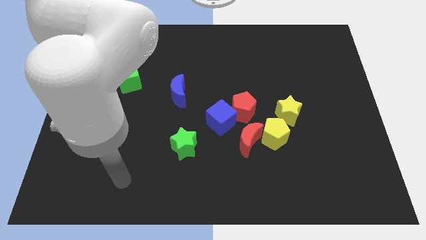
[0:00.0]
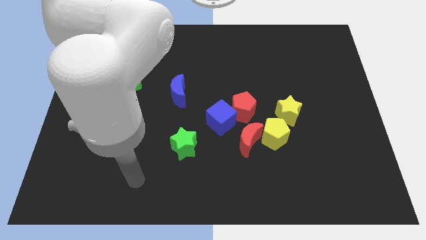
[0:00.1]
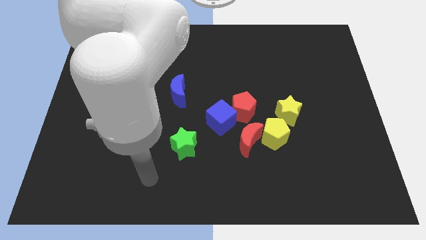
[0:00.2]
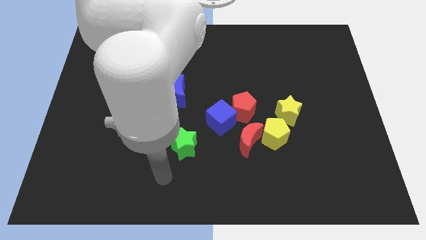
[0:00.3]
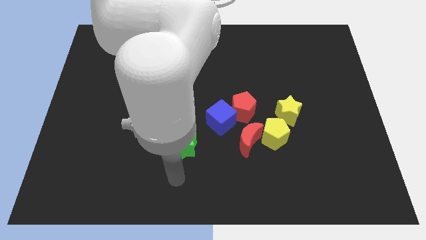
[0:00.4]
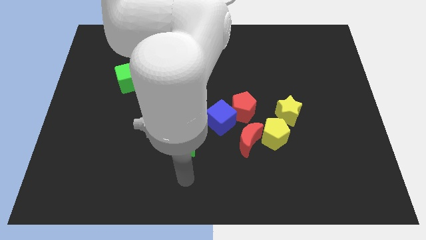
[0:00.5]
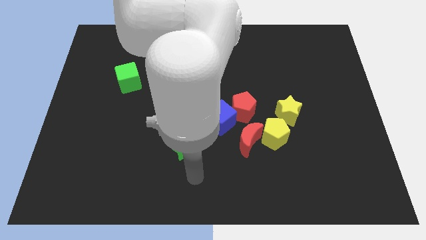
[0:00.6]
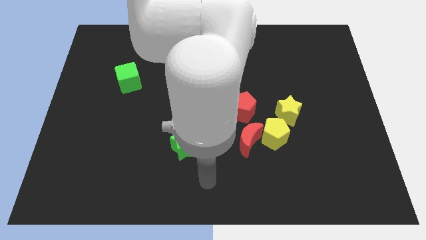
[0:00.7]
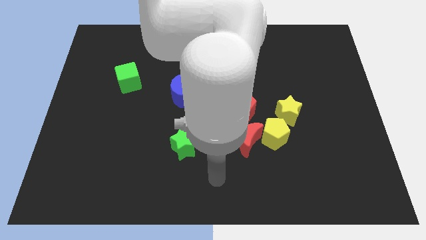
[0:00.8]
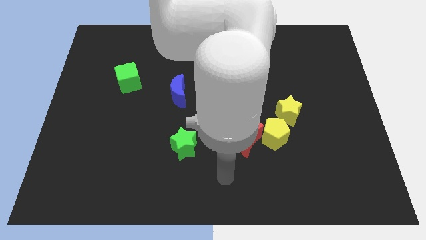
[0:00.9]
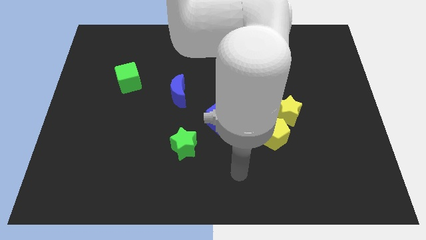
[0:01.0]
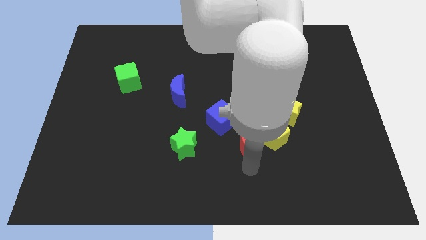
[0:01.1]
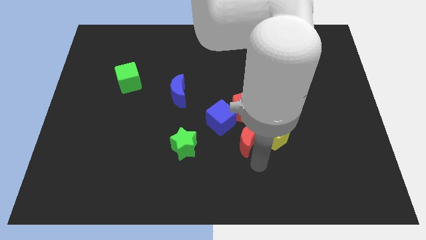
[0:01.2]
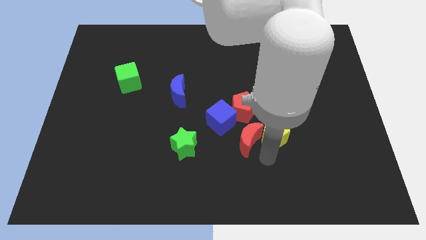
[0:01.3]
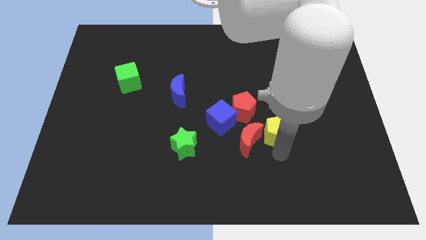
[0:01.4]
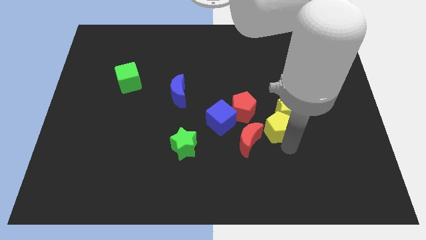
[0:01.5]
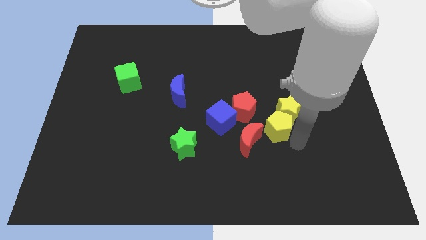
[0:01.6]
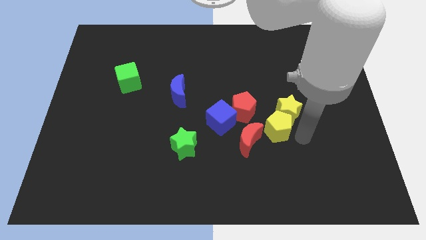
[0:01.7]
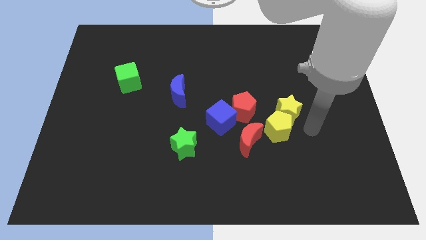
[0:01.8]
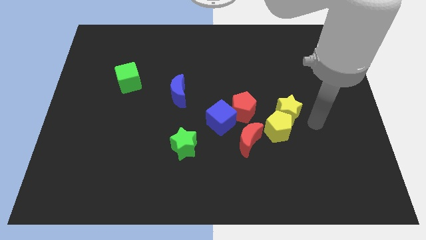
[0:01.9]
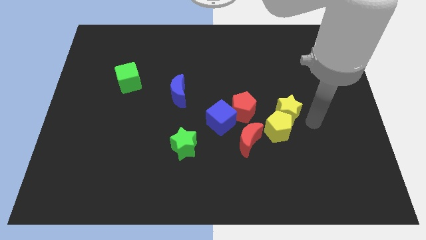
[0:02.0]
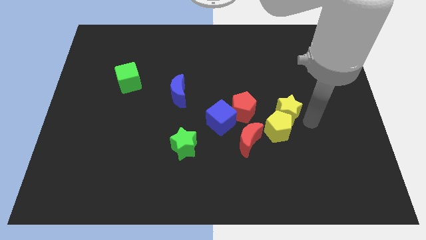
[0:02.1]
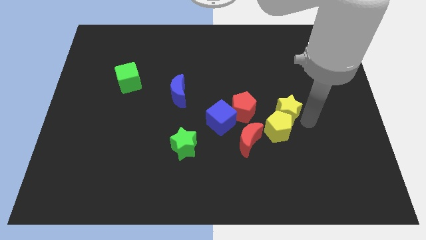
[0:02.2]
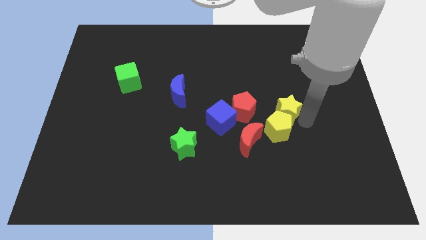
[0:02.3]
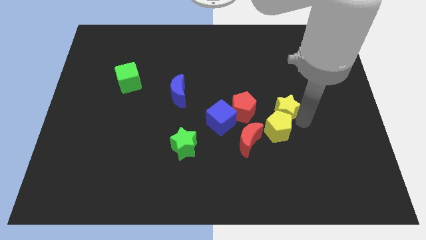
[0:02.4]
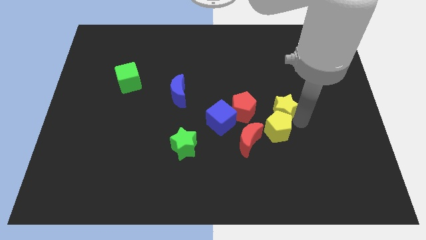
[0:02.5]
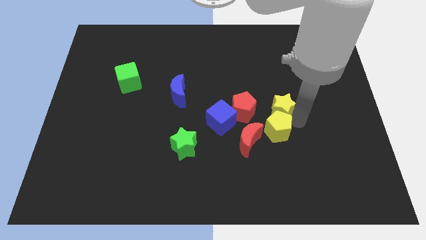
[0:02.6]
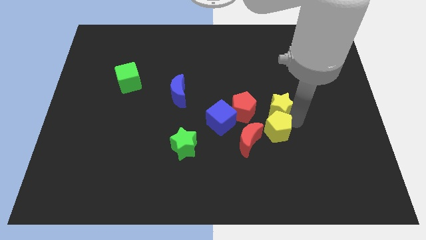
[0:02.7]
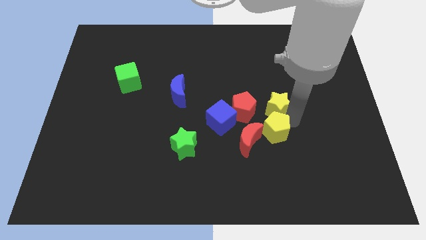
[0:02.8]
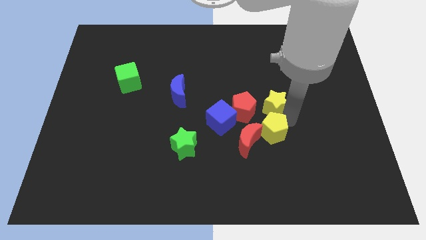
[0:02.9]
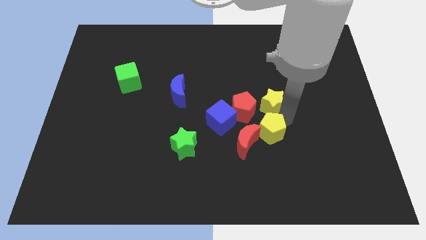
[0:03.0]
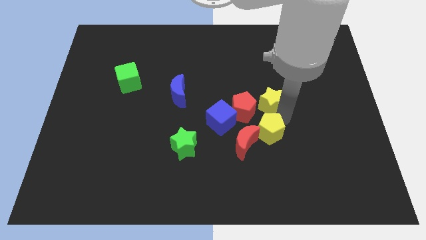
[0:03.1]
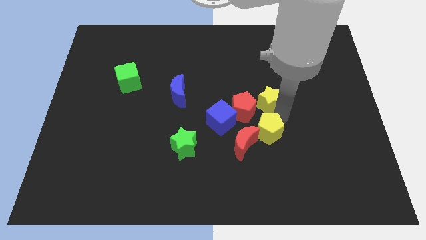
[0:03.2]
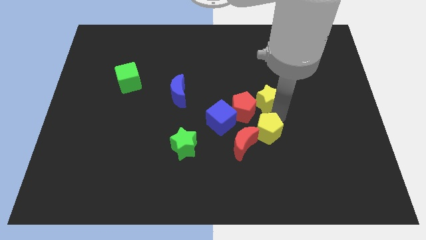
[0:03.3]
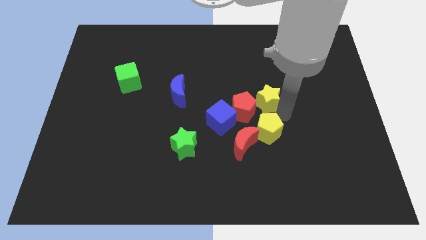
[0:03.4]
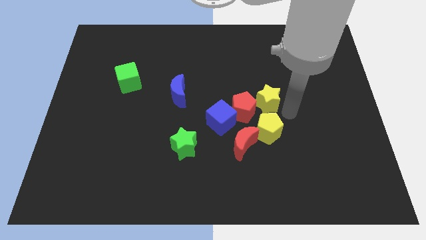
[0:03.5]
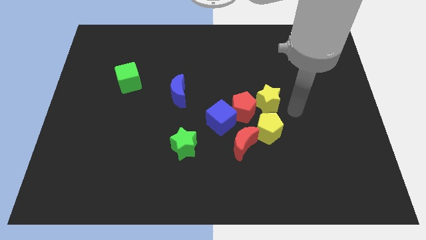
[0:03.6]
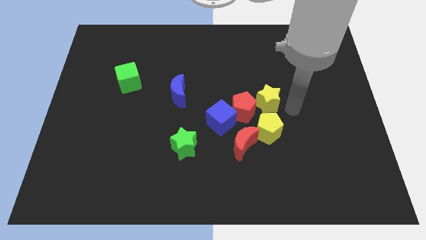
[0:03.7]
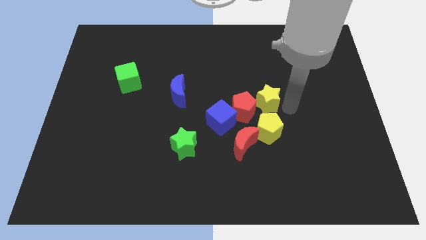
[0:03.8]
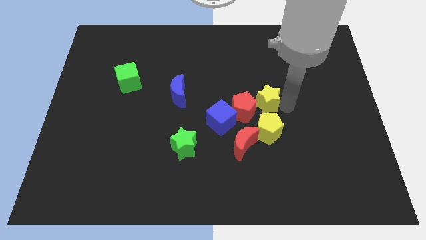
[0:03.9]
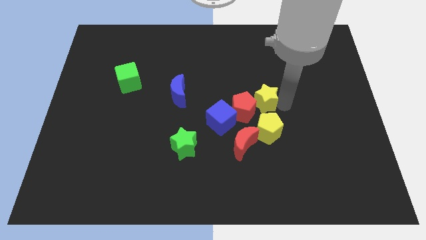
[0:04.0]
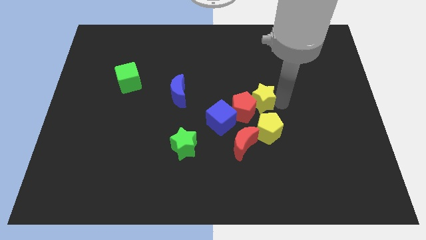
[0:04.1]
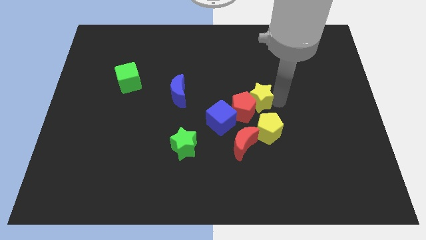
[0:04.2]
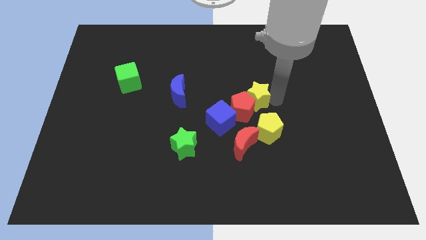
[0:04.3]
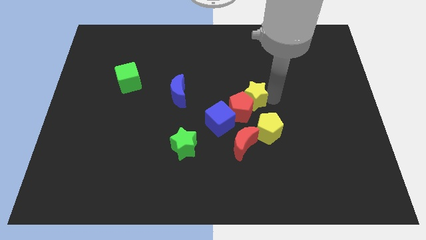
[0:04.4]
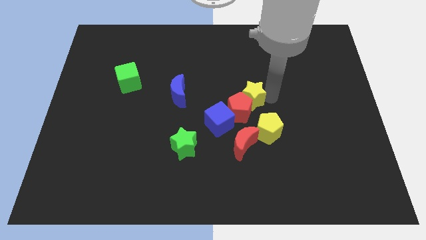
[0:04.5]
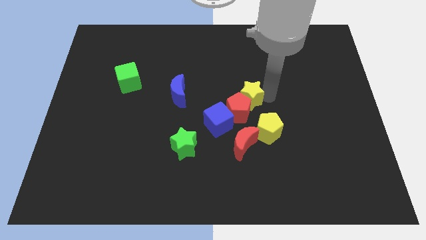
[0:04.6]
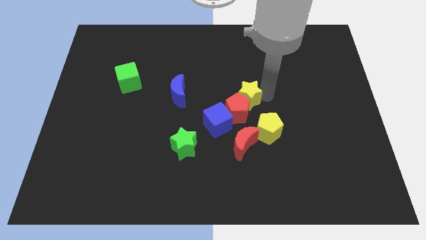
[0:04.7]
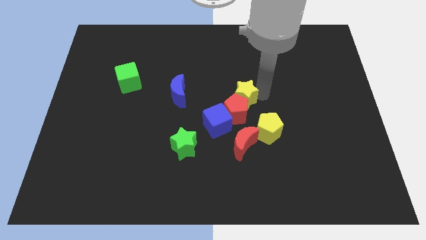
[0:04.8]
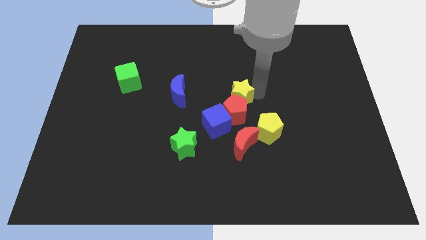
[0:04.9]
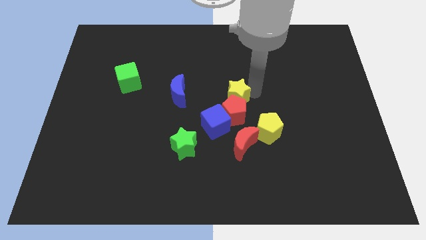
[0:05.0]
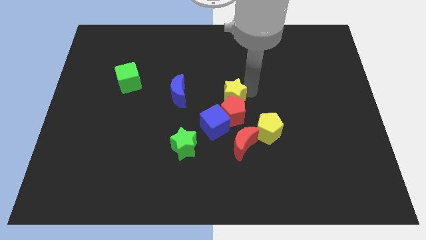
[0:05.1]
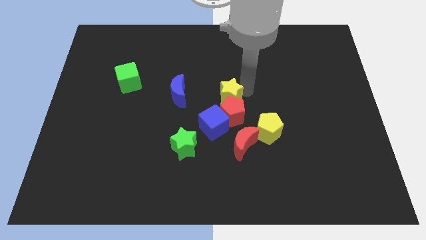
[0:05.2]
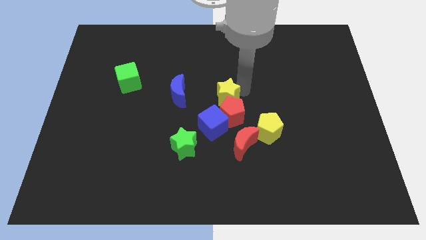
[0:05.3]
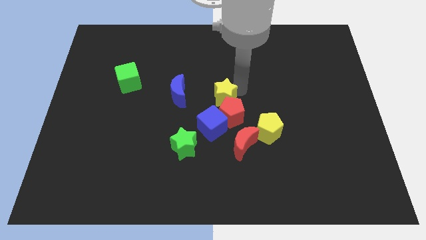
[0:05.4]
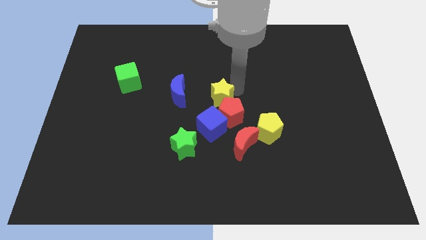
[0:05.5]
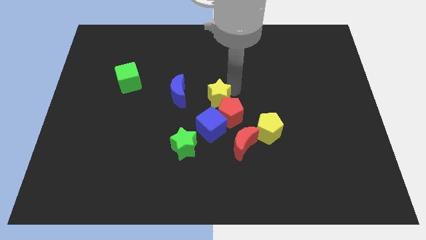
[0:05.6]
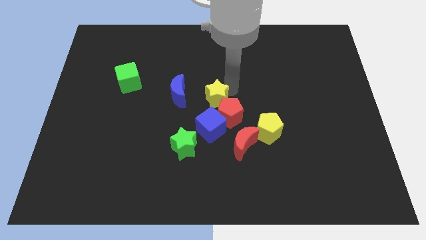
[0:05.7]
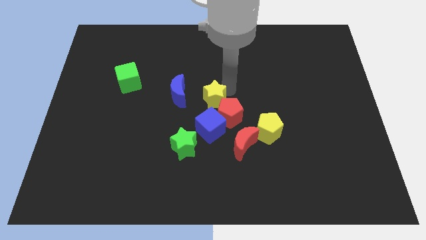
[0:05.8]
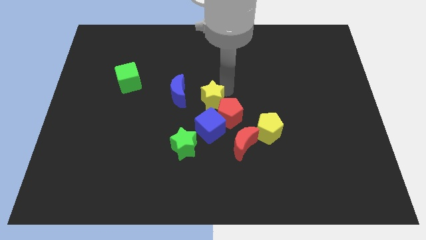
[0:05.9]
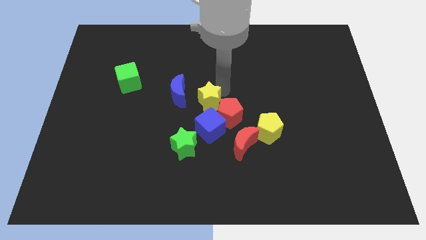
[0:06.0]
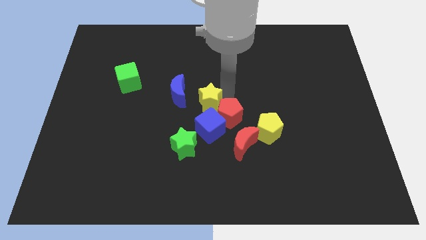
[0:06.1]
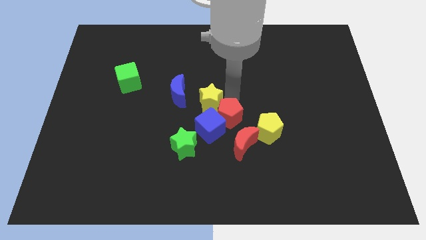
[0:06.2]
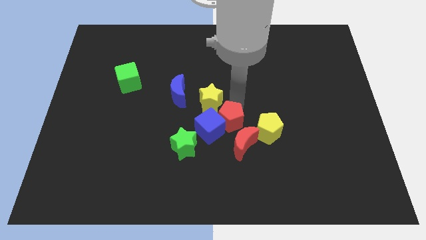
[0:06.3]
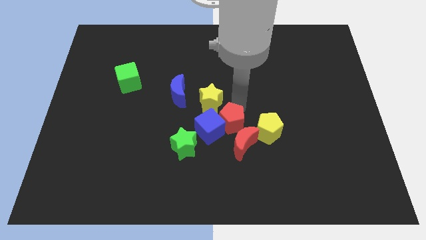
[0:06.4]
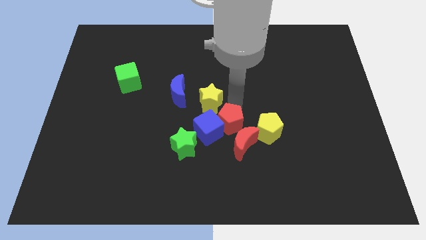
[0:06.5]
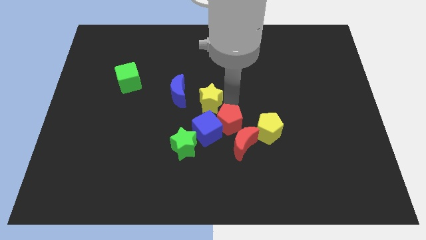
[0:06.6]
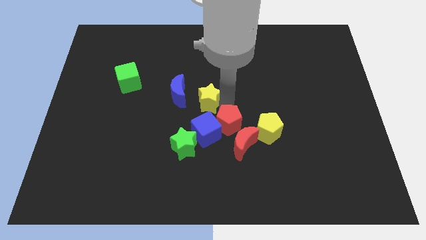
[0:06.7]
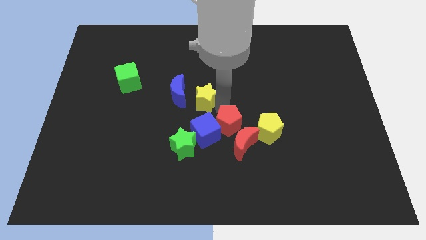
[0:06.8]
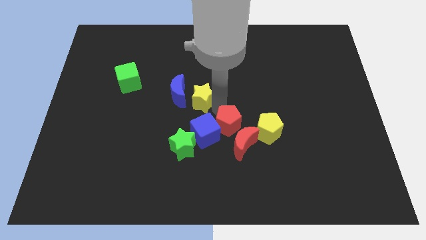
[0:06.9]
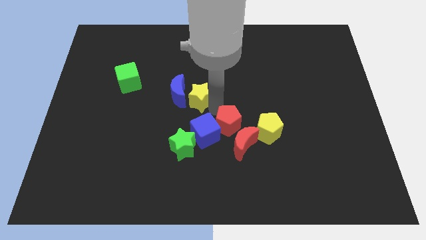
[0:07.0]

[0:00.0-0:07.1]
move the yellow star towards the blue moon

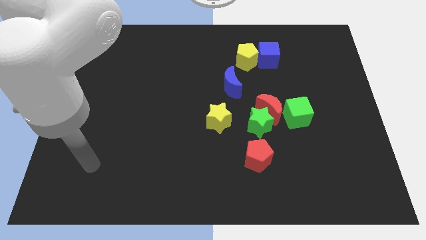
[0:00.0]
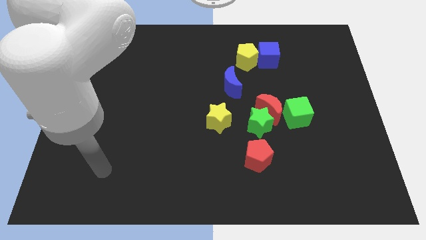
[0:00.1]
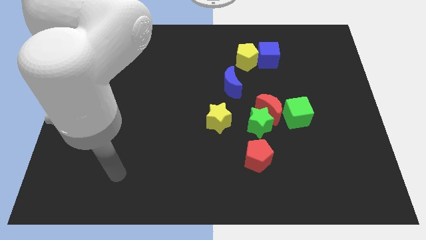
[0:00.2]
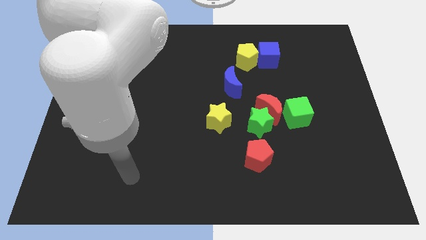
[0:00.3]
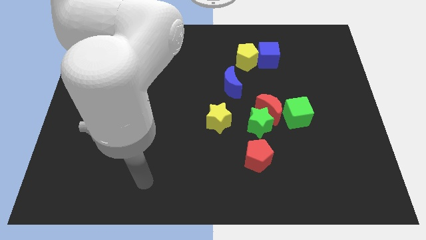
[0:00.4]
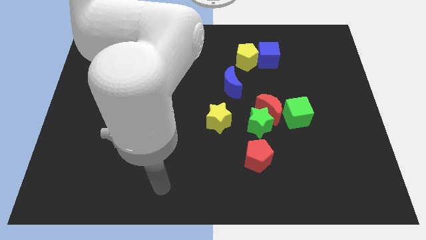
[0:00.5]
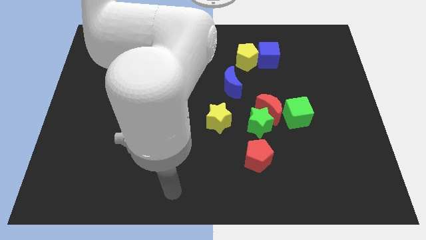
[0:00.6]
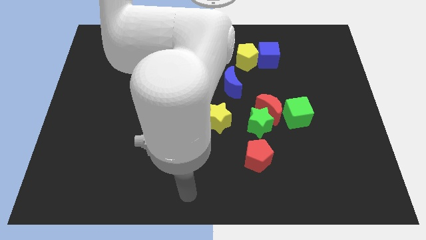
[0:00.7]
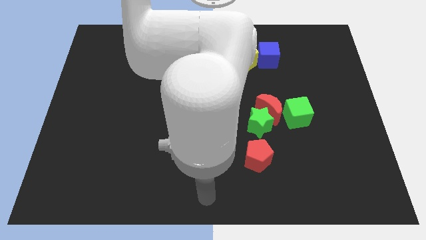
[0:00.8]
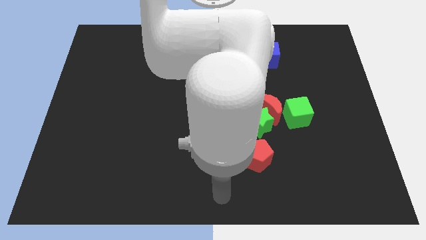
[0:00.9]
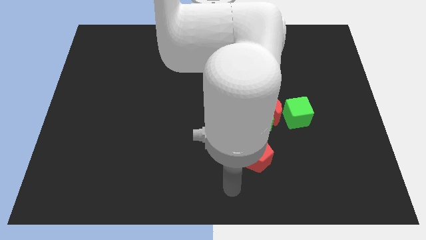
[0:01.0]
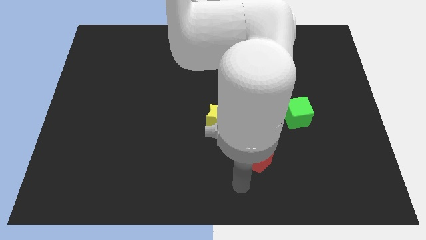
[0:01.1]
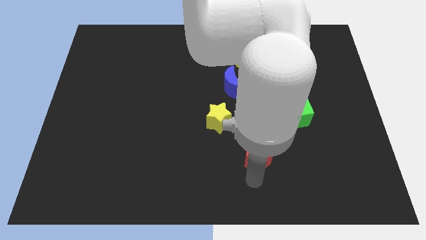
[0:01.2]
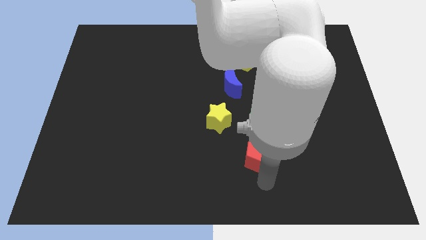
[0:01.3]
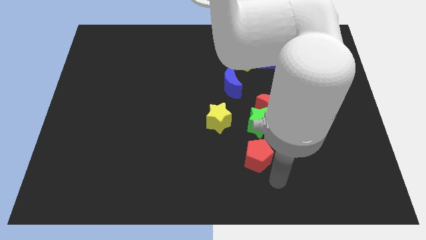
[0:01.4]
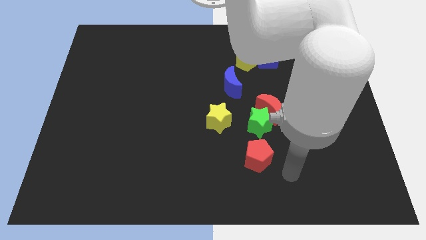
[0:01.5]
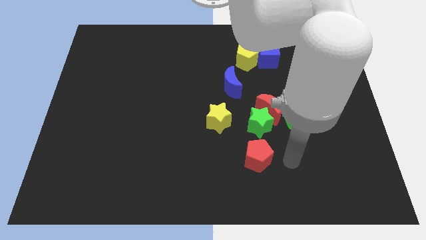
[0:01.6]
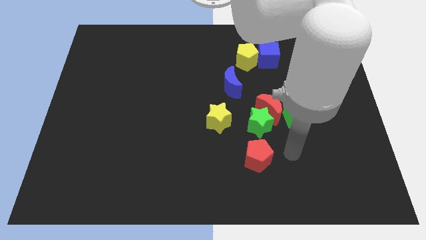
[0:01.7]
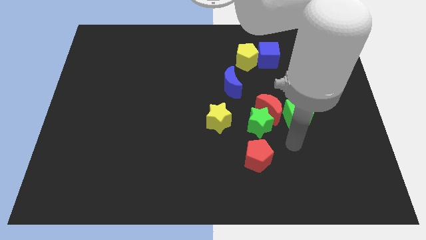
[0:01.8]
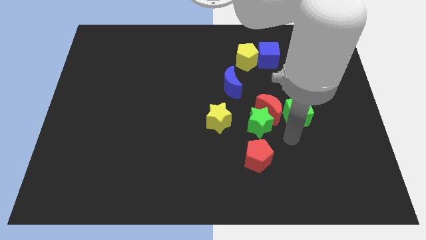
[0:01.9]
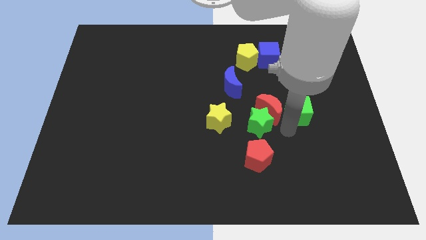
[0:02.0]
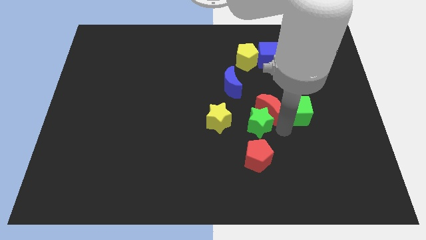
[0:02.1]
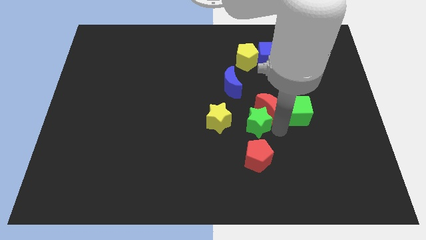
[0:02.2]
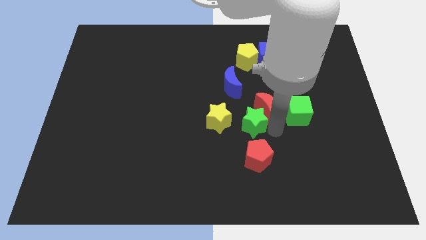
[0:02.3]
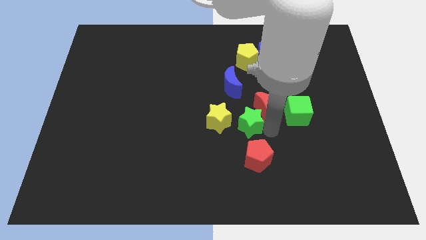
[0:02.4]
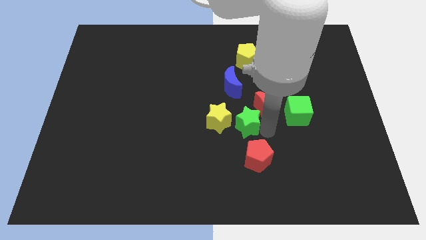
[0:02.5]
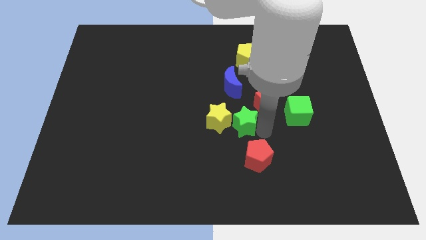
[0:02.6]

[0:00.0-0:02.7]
put the green star to the yellow star
